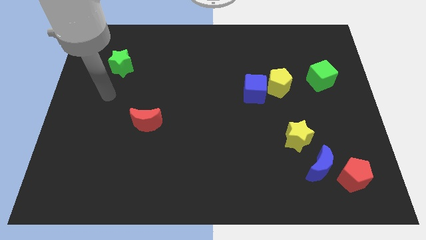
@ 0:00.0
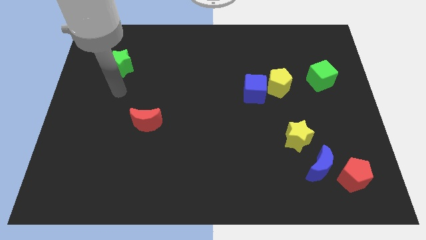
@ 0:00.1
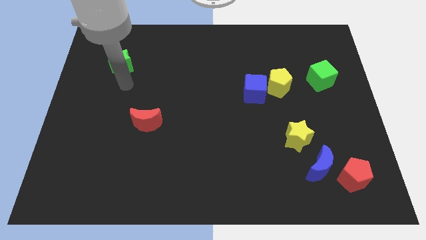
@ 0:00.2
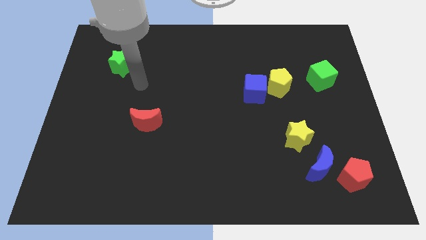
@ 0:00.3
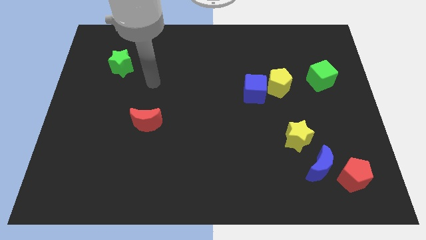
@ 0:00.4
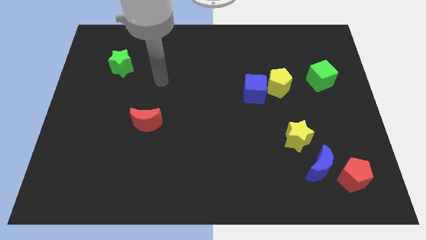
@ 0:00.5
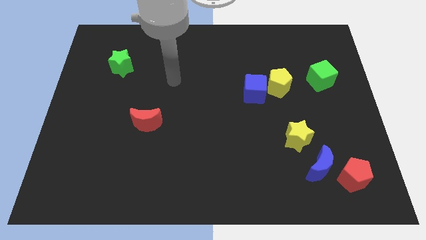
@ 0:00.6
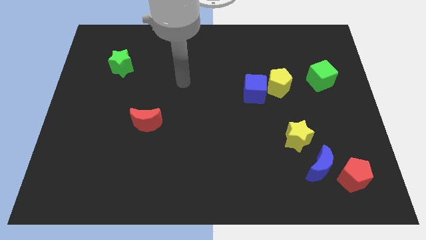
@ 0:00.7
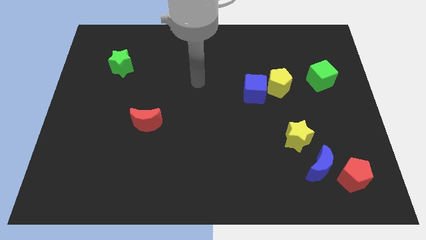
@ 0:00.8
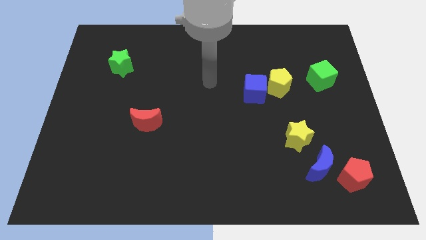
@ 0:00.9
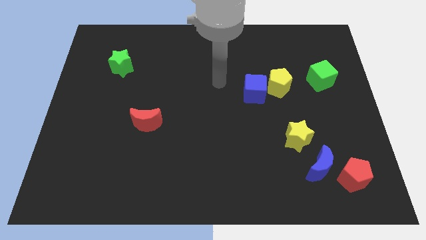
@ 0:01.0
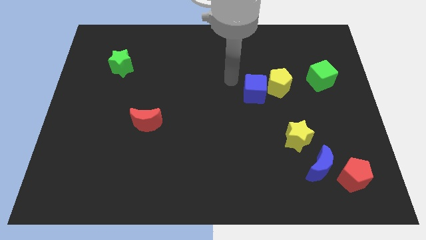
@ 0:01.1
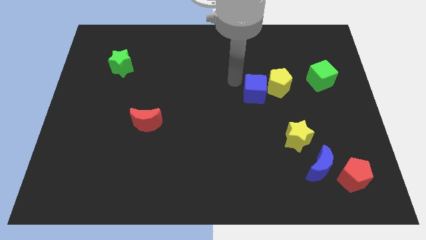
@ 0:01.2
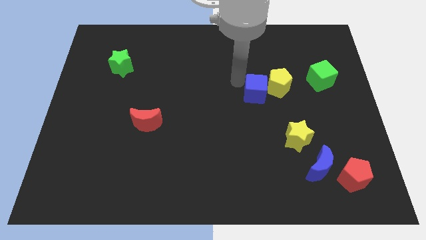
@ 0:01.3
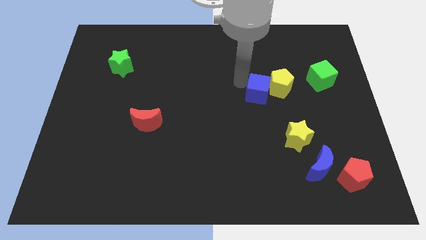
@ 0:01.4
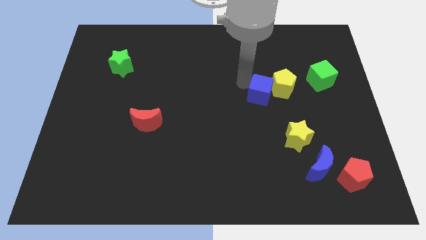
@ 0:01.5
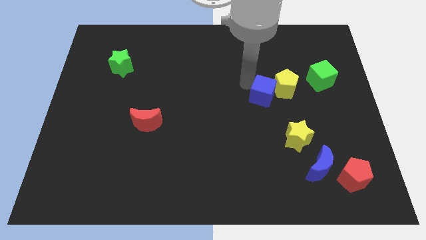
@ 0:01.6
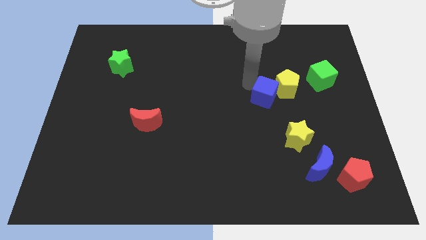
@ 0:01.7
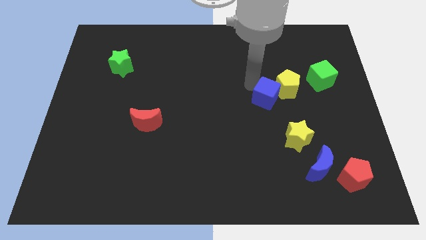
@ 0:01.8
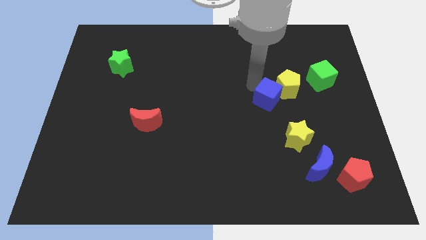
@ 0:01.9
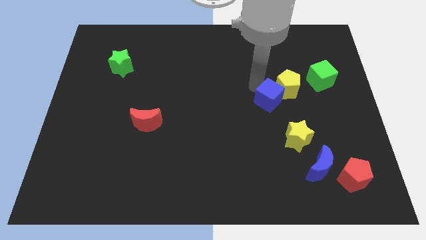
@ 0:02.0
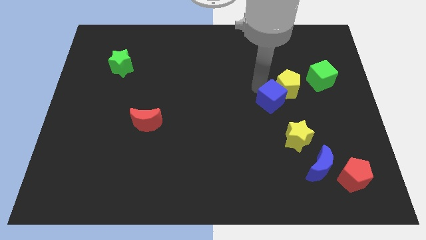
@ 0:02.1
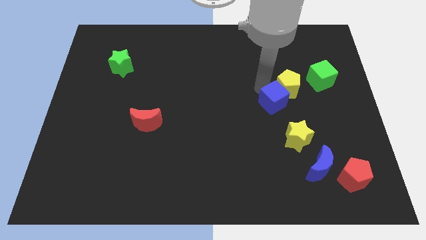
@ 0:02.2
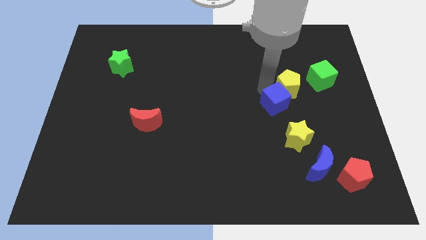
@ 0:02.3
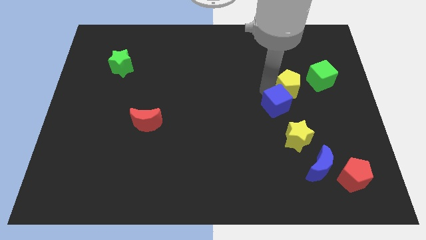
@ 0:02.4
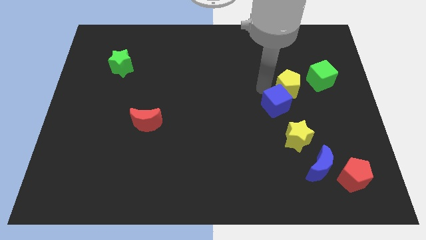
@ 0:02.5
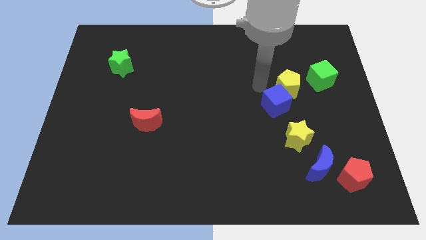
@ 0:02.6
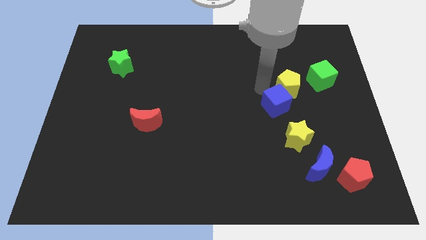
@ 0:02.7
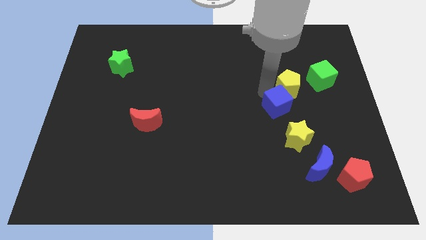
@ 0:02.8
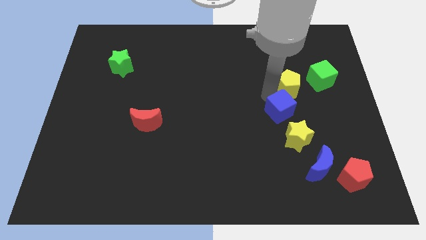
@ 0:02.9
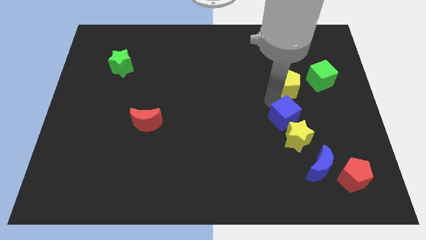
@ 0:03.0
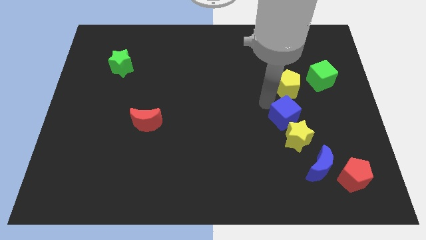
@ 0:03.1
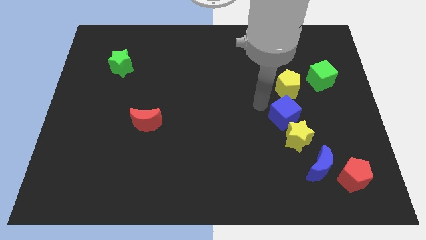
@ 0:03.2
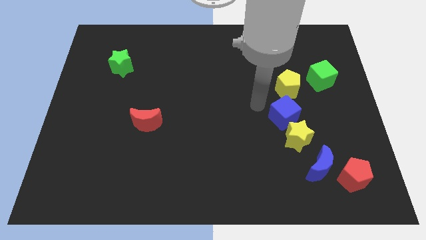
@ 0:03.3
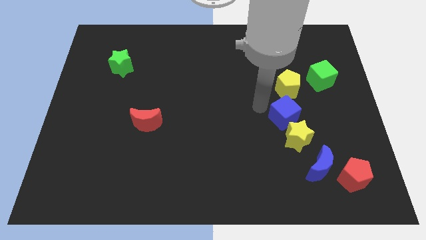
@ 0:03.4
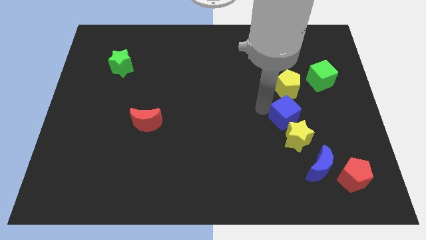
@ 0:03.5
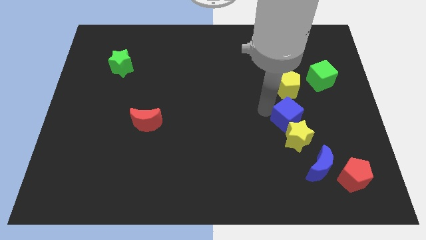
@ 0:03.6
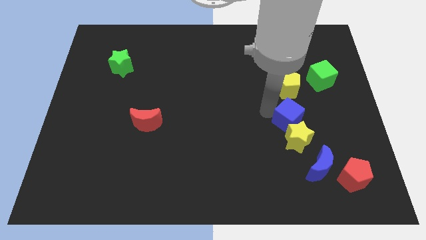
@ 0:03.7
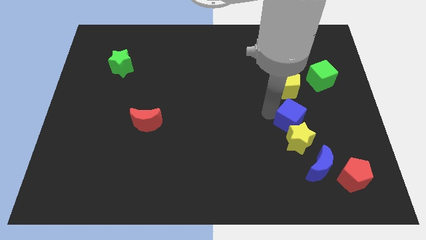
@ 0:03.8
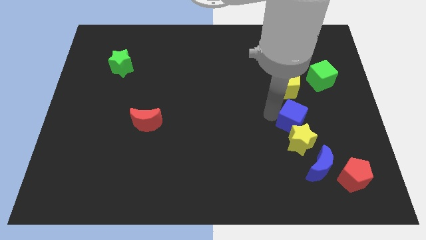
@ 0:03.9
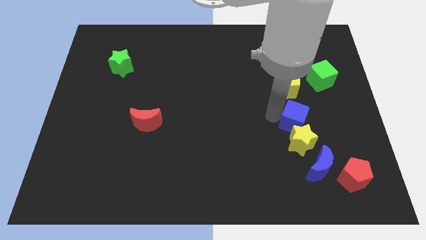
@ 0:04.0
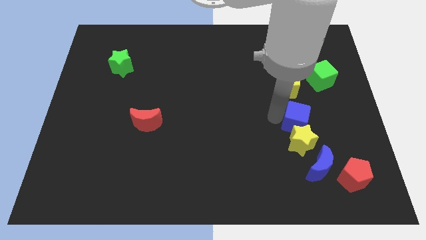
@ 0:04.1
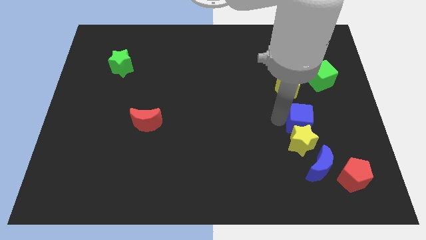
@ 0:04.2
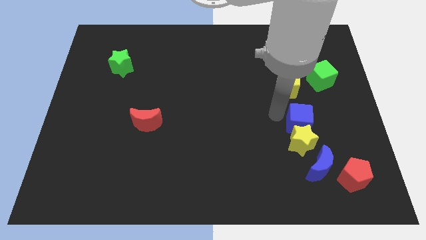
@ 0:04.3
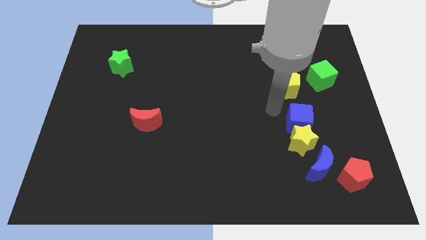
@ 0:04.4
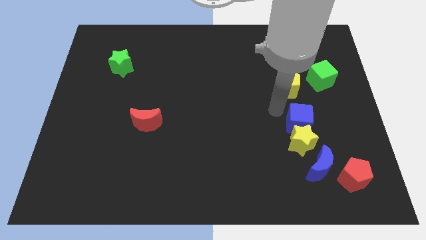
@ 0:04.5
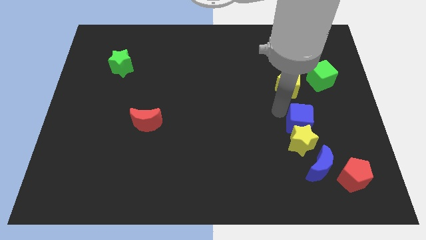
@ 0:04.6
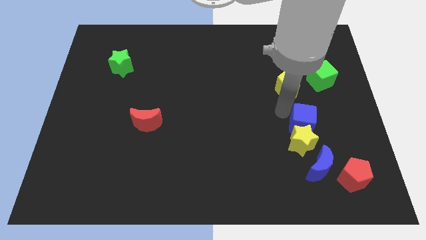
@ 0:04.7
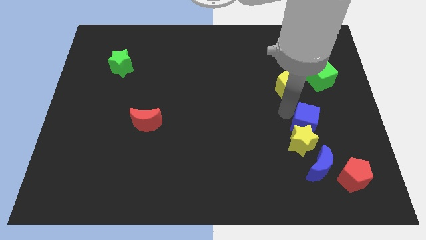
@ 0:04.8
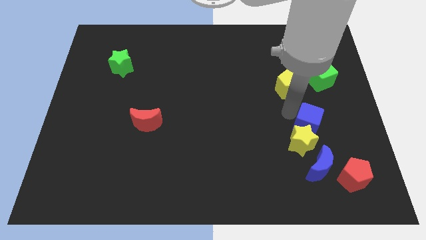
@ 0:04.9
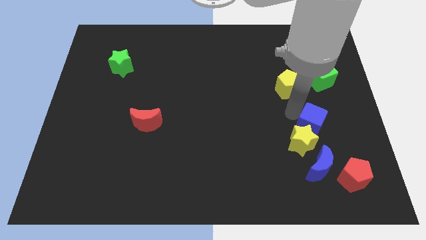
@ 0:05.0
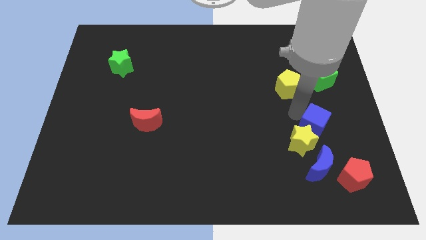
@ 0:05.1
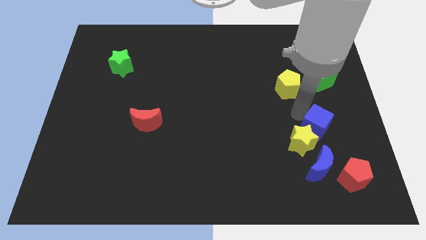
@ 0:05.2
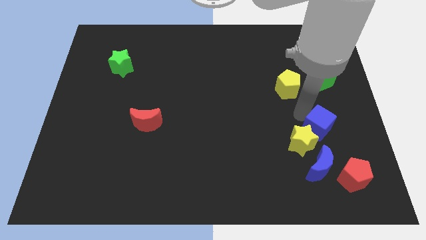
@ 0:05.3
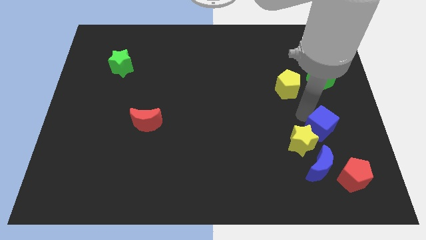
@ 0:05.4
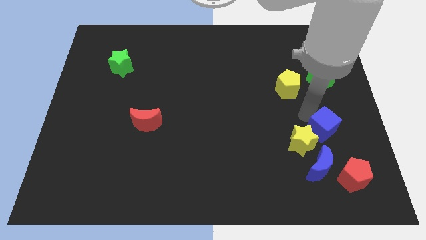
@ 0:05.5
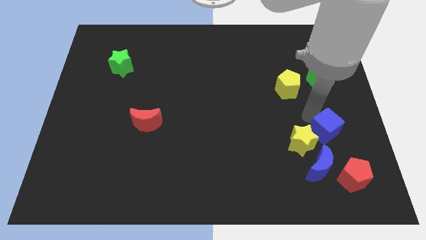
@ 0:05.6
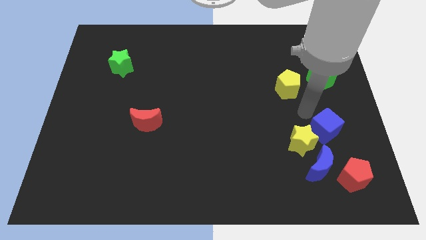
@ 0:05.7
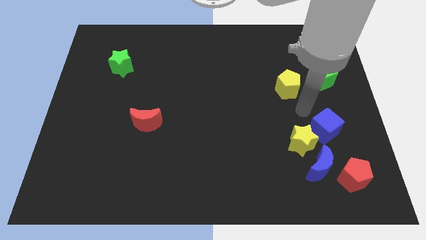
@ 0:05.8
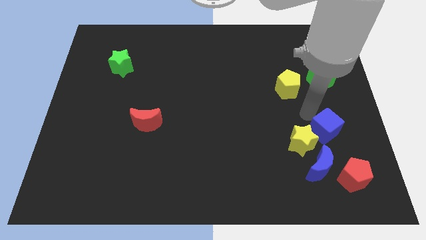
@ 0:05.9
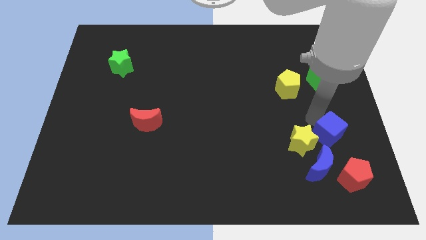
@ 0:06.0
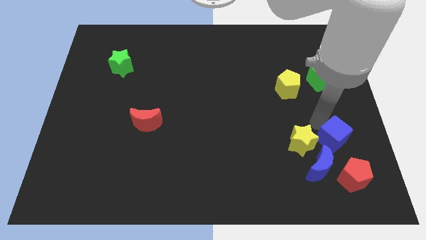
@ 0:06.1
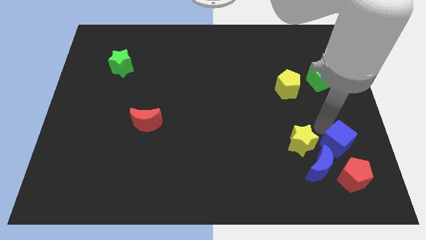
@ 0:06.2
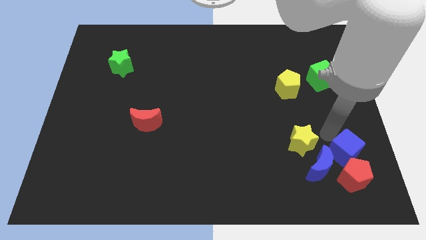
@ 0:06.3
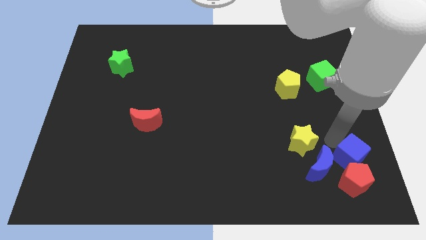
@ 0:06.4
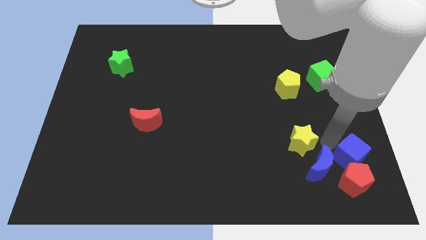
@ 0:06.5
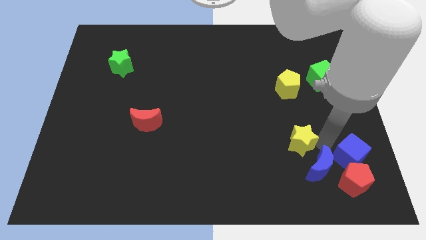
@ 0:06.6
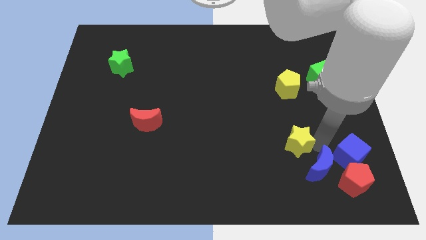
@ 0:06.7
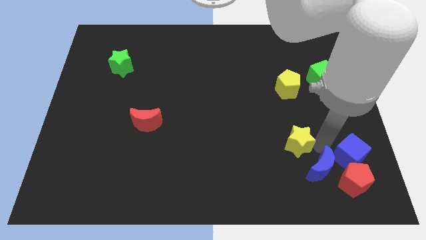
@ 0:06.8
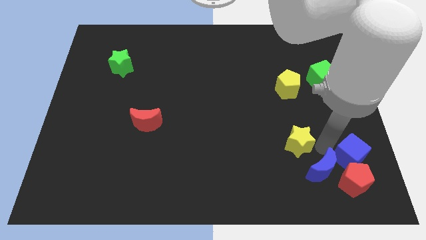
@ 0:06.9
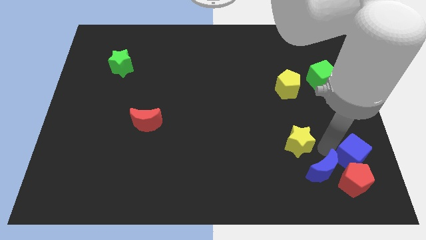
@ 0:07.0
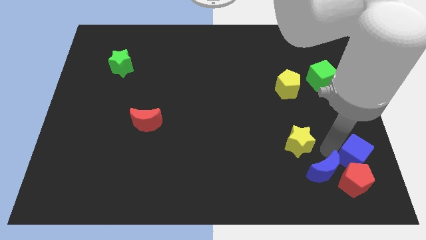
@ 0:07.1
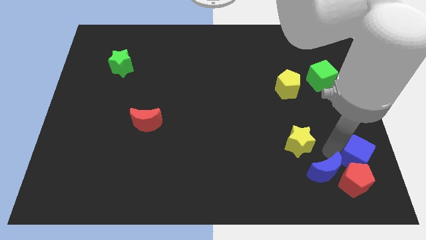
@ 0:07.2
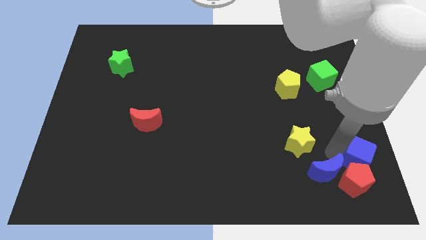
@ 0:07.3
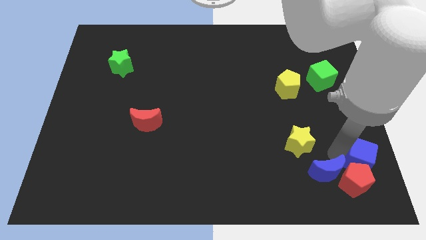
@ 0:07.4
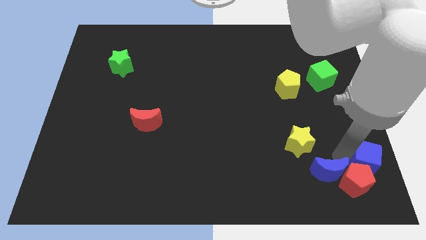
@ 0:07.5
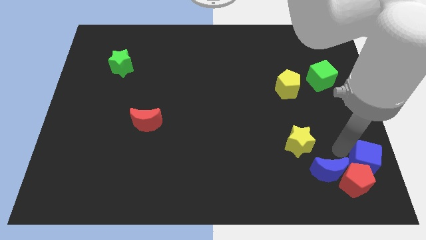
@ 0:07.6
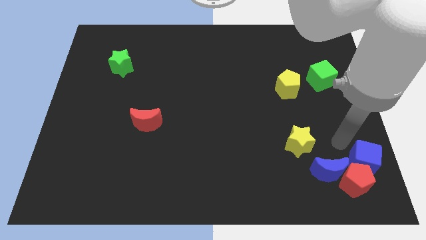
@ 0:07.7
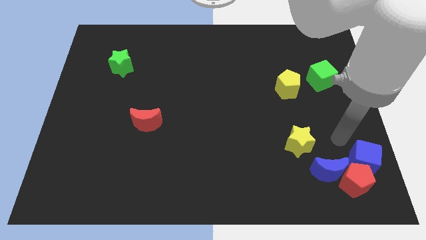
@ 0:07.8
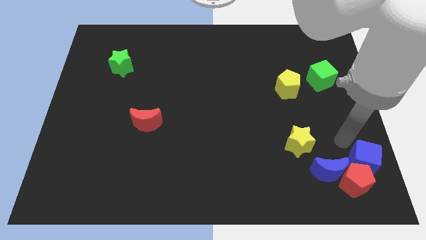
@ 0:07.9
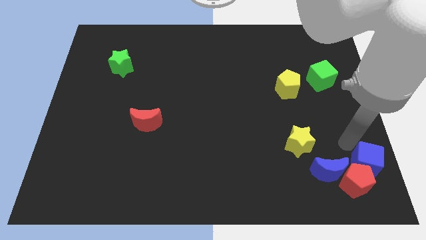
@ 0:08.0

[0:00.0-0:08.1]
push the blue cube to the bottom right
